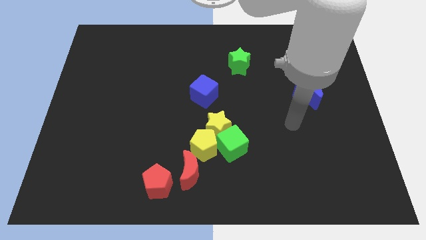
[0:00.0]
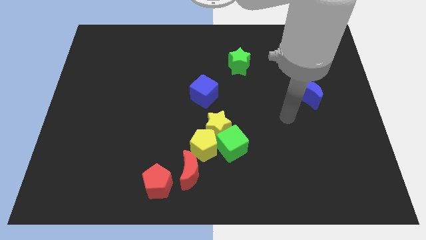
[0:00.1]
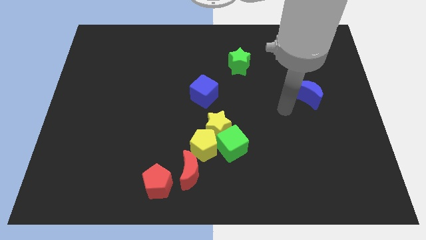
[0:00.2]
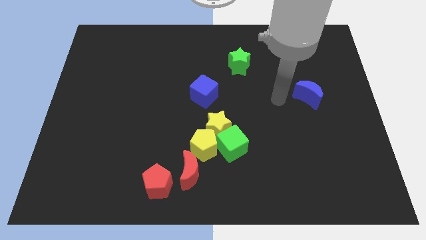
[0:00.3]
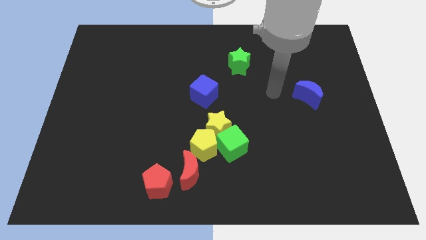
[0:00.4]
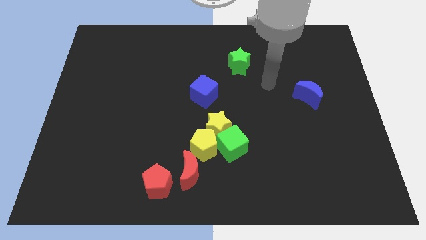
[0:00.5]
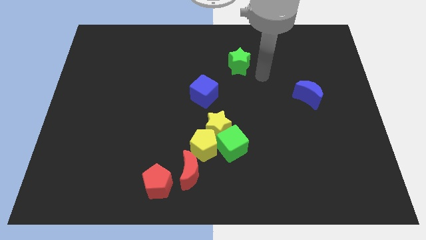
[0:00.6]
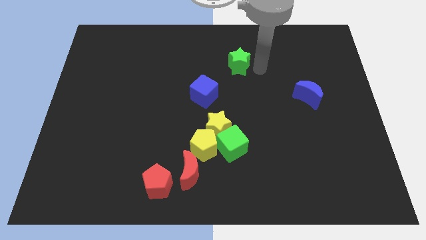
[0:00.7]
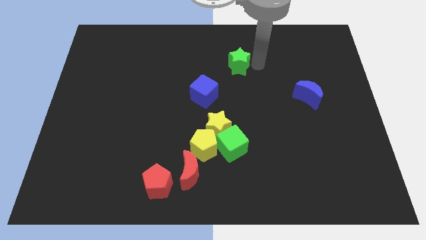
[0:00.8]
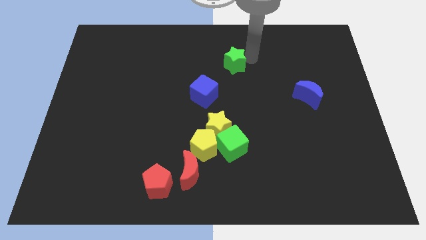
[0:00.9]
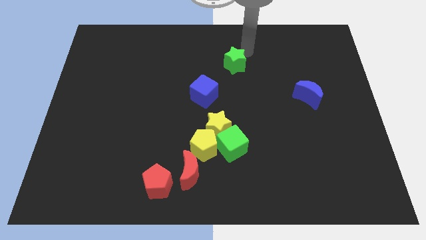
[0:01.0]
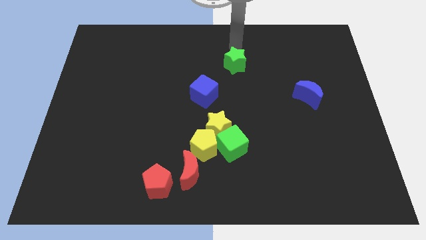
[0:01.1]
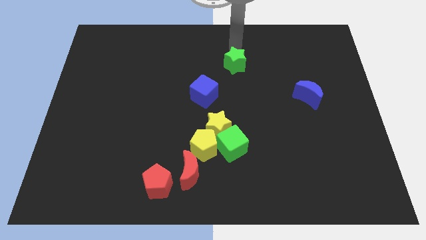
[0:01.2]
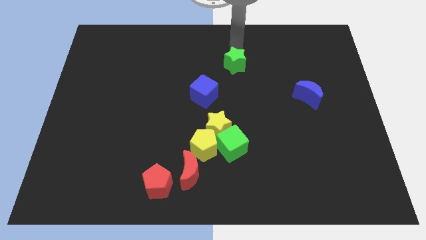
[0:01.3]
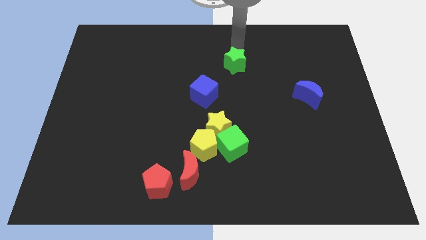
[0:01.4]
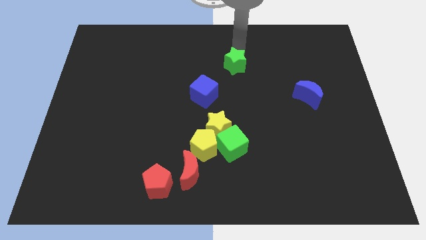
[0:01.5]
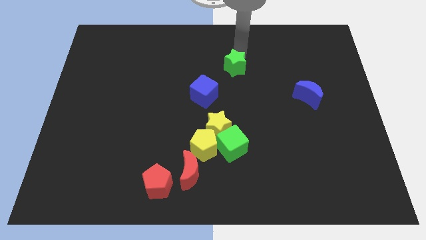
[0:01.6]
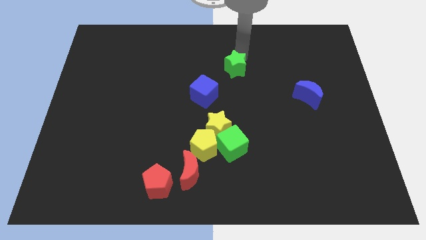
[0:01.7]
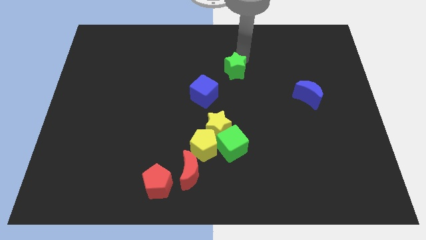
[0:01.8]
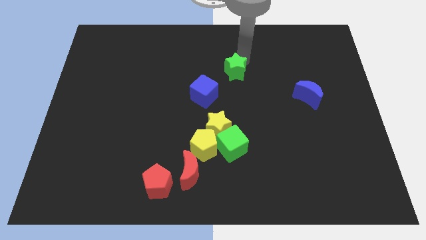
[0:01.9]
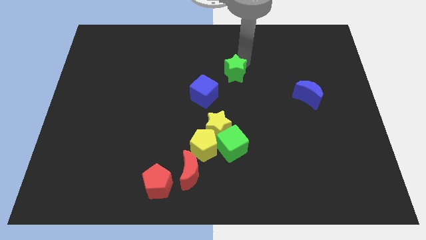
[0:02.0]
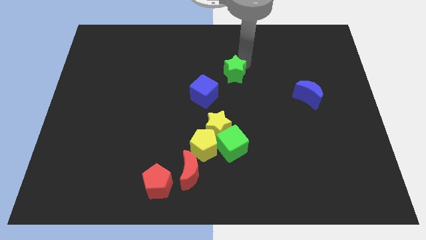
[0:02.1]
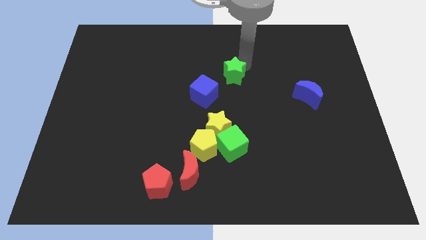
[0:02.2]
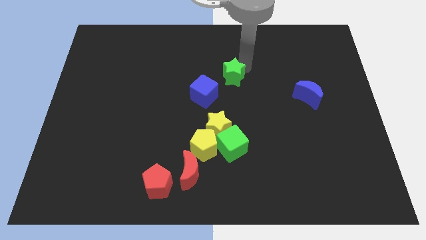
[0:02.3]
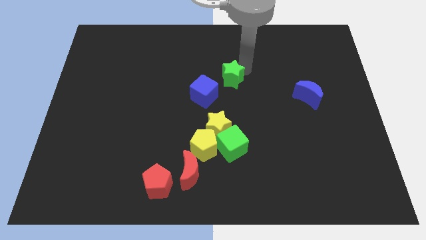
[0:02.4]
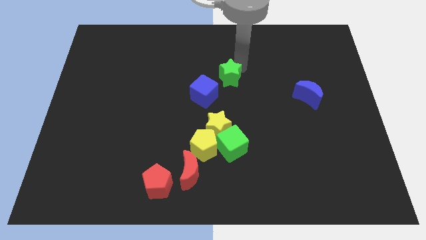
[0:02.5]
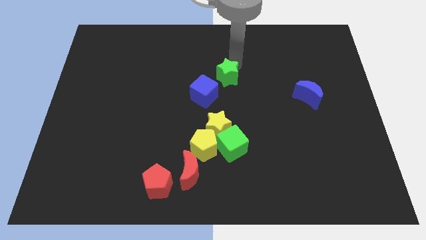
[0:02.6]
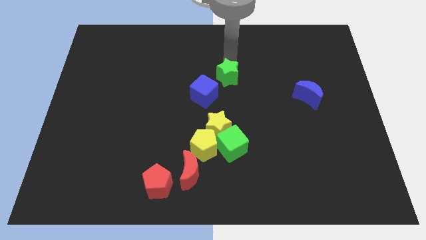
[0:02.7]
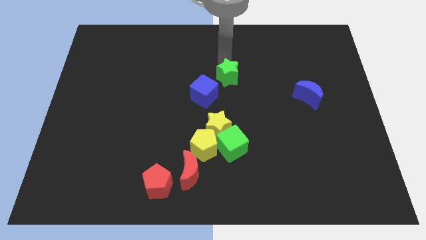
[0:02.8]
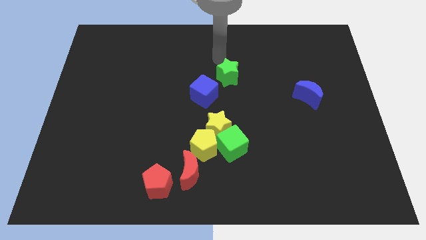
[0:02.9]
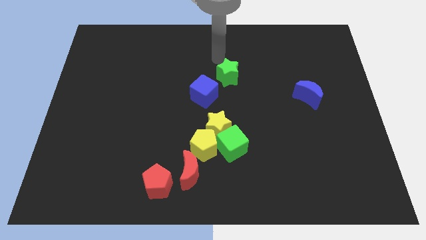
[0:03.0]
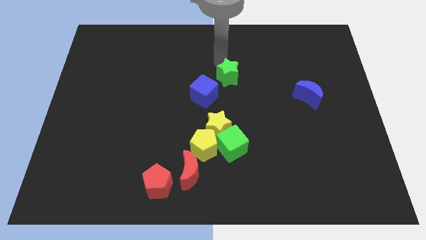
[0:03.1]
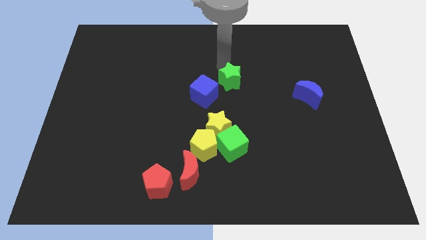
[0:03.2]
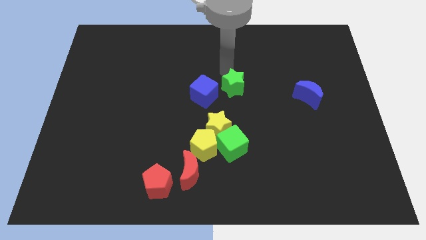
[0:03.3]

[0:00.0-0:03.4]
slide the green star downwards a little

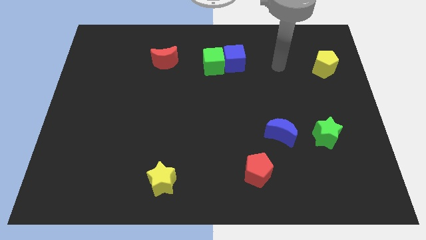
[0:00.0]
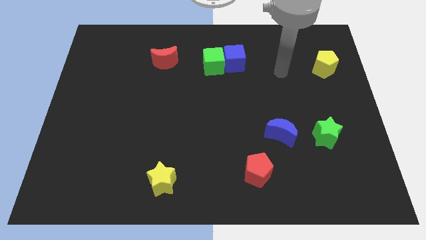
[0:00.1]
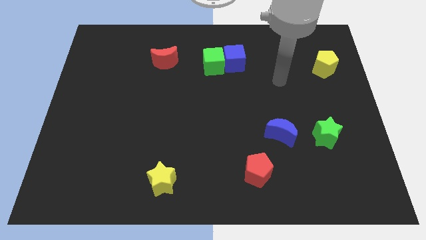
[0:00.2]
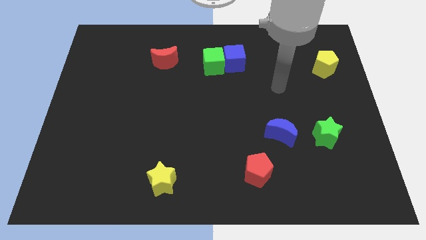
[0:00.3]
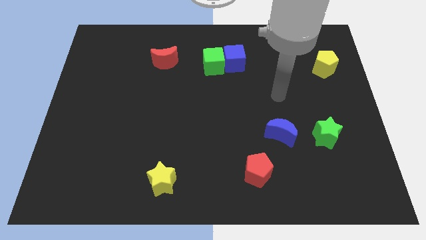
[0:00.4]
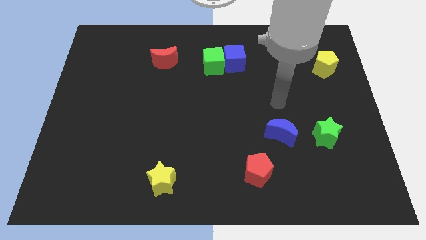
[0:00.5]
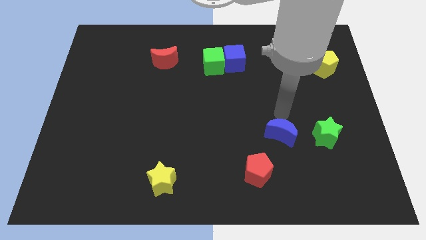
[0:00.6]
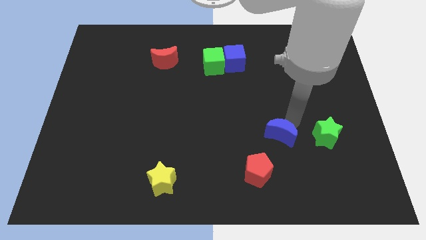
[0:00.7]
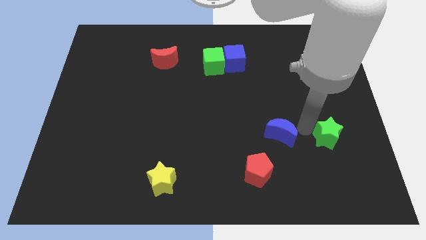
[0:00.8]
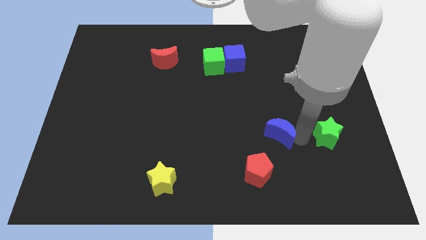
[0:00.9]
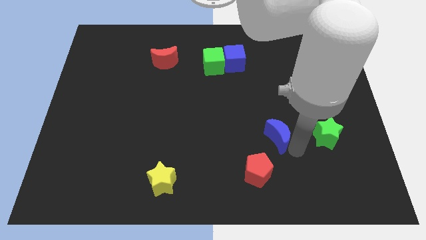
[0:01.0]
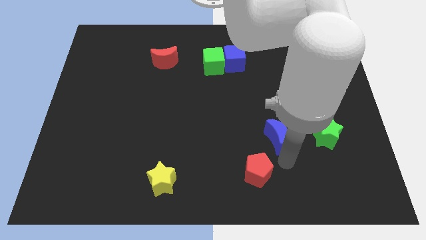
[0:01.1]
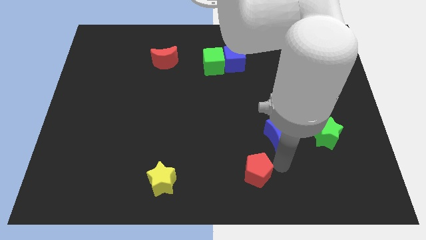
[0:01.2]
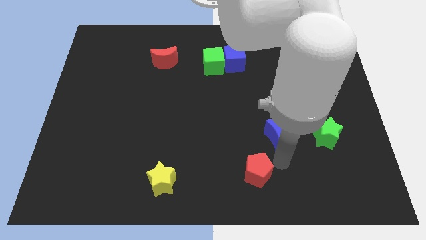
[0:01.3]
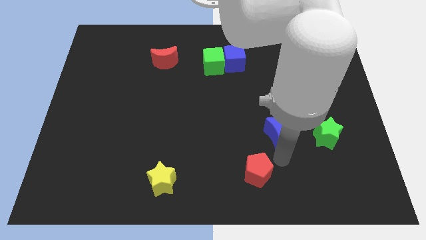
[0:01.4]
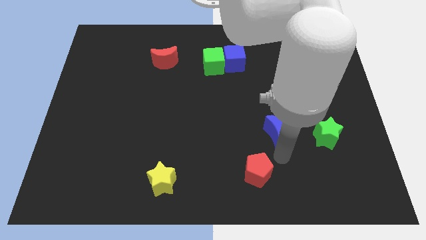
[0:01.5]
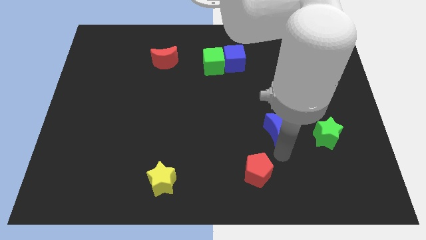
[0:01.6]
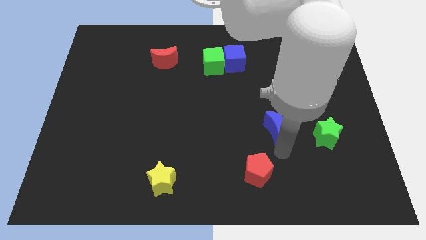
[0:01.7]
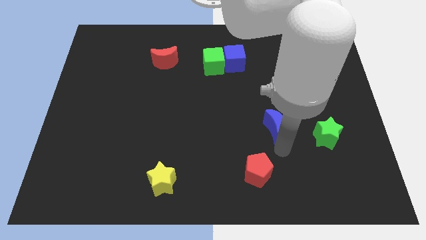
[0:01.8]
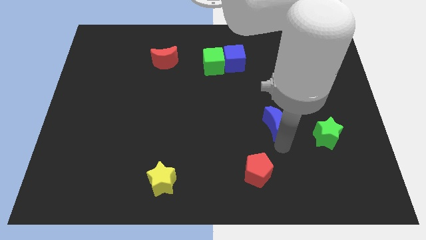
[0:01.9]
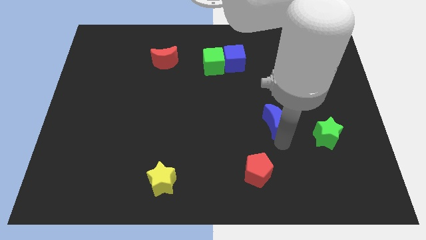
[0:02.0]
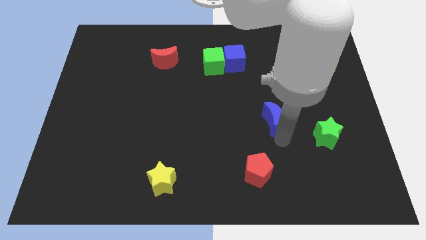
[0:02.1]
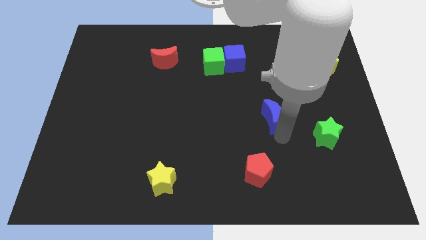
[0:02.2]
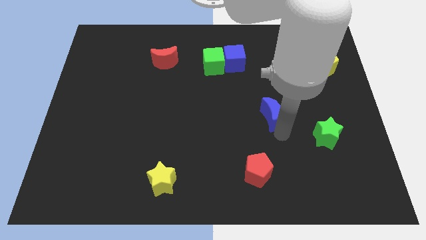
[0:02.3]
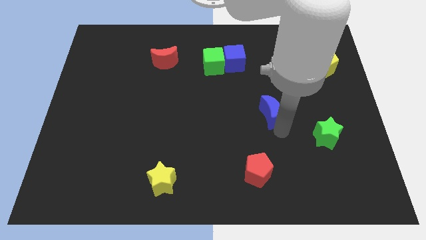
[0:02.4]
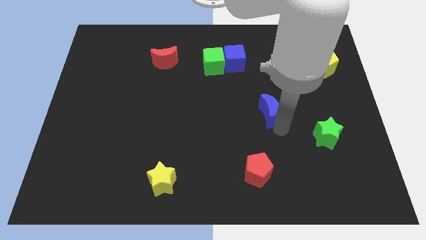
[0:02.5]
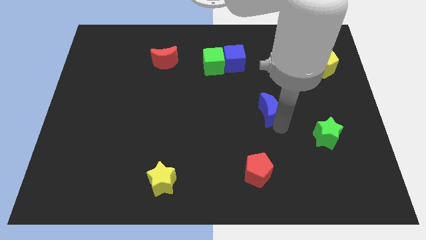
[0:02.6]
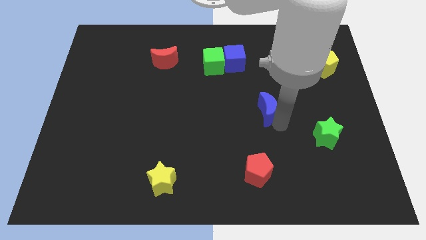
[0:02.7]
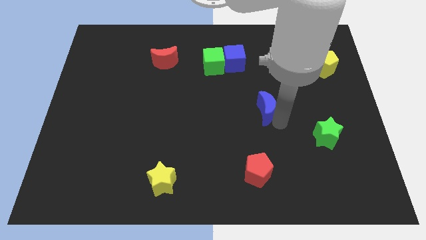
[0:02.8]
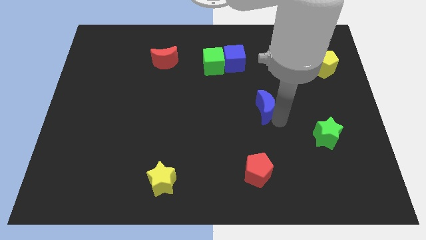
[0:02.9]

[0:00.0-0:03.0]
move the blue moon slightly up

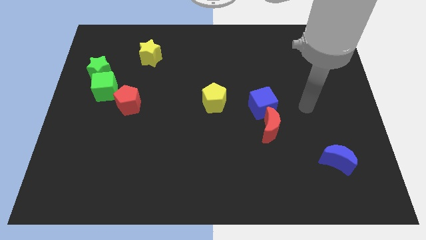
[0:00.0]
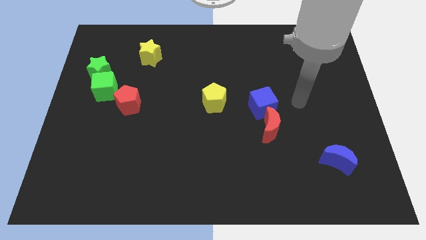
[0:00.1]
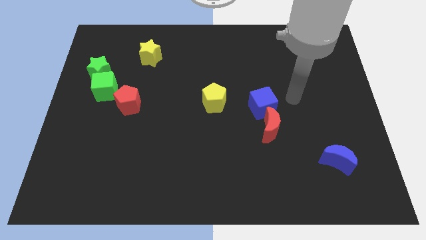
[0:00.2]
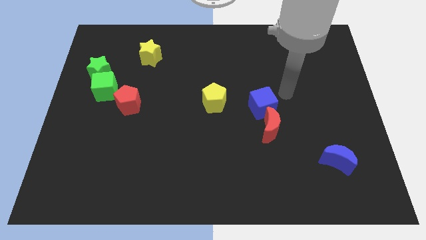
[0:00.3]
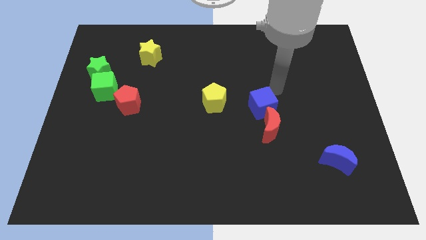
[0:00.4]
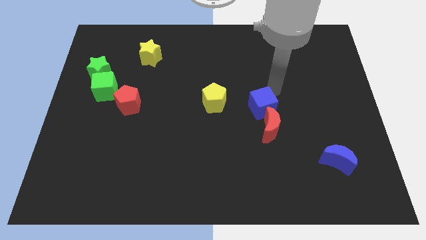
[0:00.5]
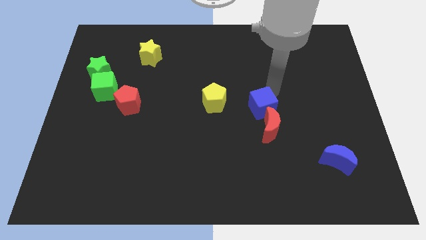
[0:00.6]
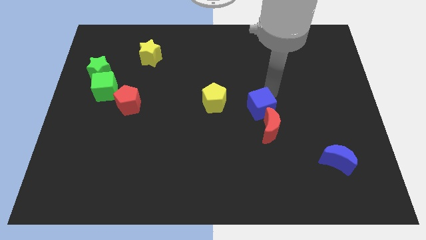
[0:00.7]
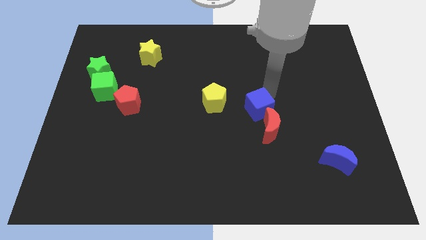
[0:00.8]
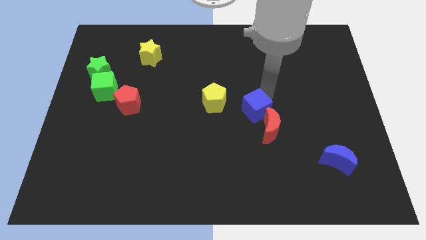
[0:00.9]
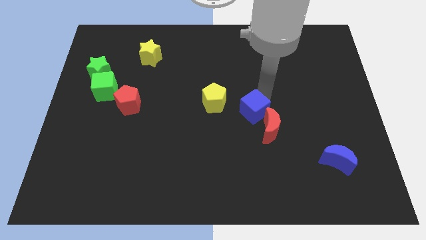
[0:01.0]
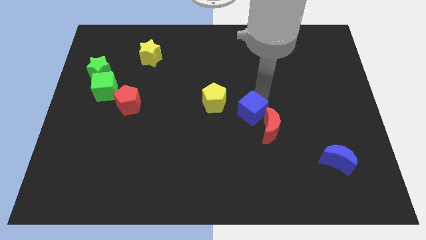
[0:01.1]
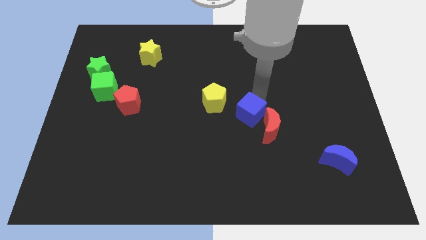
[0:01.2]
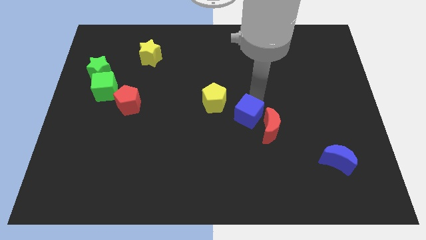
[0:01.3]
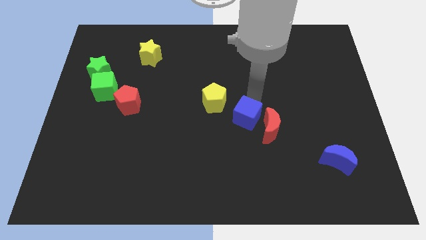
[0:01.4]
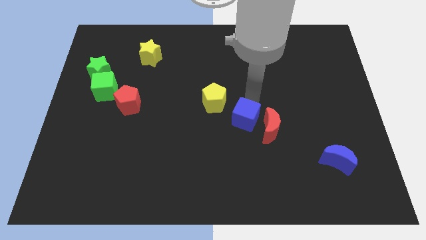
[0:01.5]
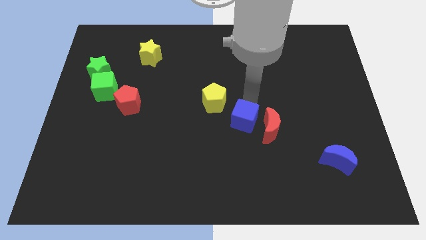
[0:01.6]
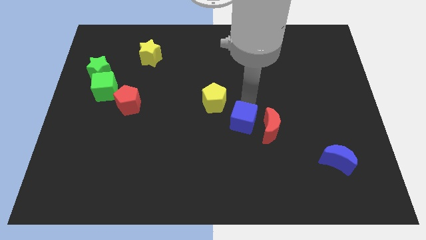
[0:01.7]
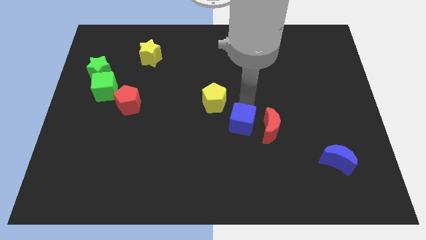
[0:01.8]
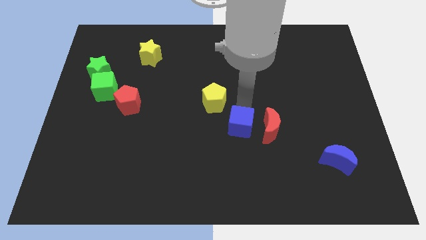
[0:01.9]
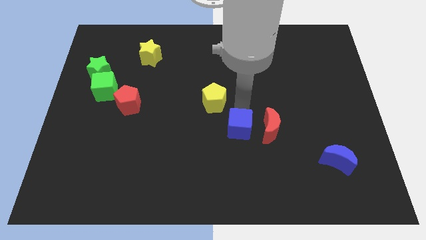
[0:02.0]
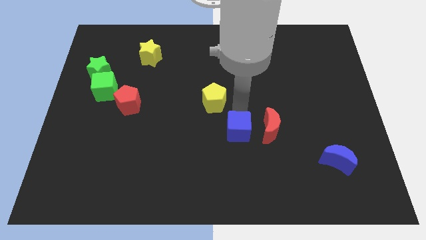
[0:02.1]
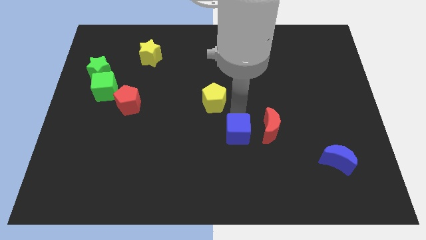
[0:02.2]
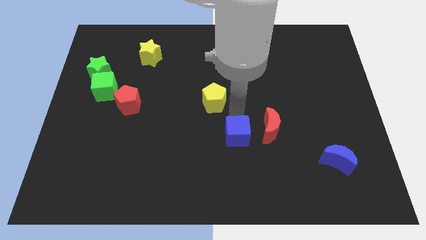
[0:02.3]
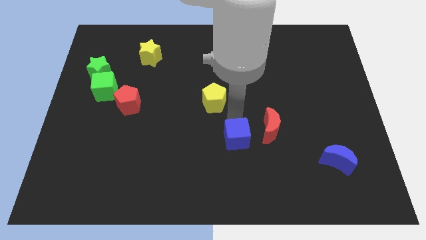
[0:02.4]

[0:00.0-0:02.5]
slide the blue cube a little bit down
